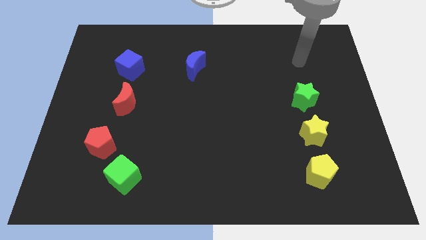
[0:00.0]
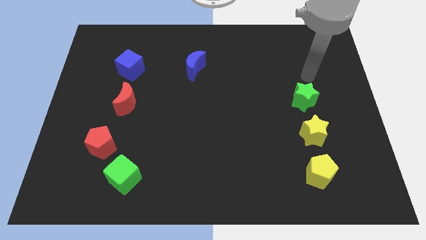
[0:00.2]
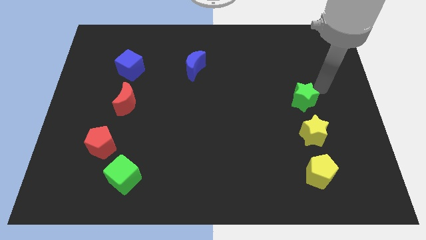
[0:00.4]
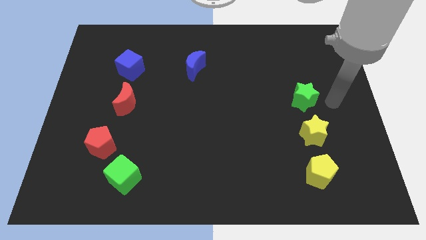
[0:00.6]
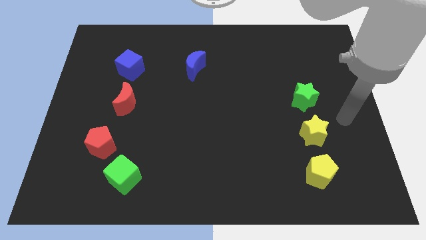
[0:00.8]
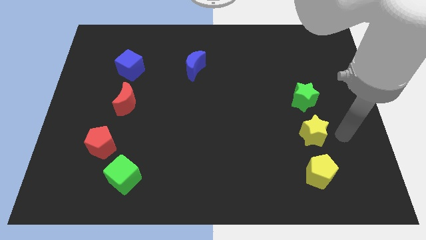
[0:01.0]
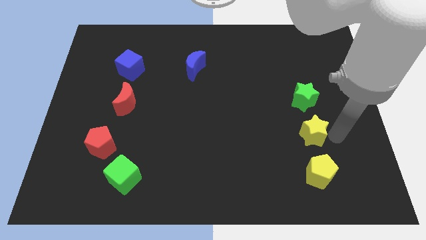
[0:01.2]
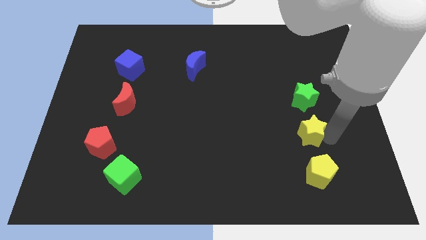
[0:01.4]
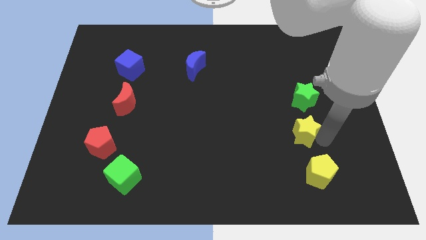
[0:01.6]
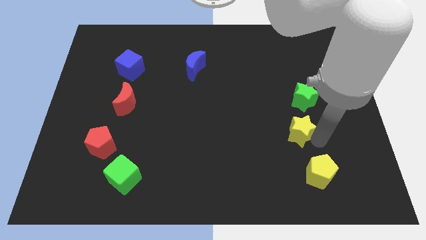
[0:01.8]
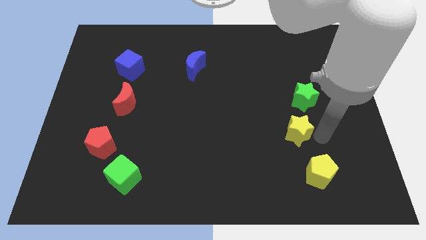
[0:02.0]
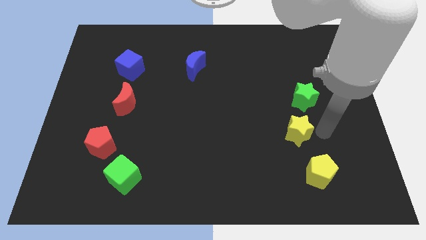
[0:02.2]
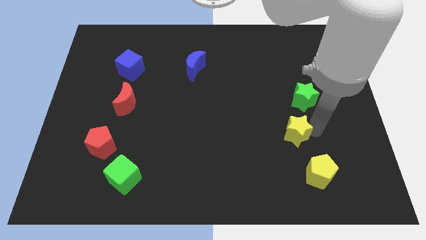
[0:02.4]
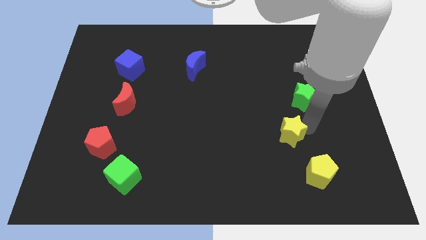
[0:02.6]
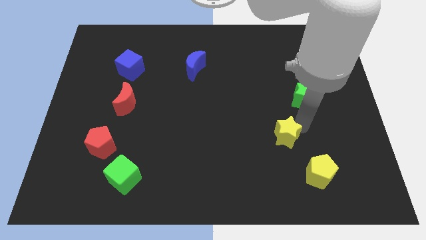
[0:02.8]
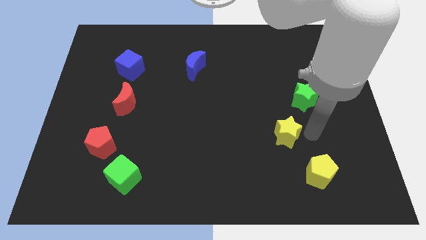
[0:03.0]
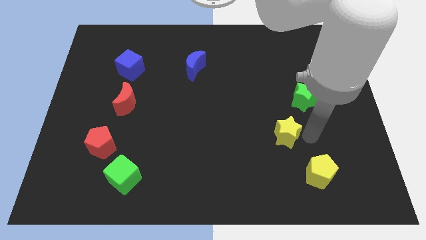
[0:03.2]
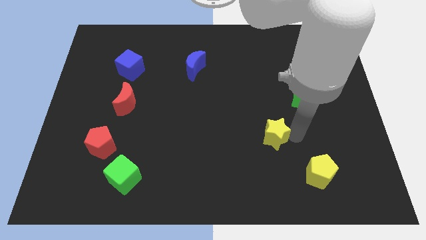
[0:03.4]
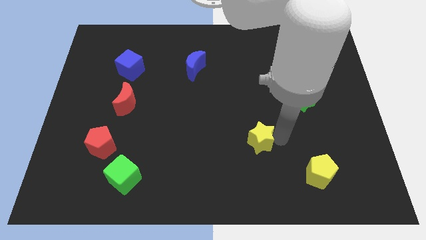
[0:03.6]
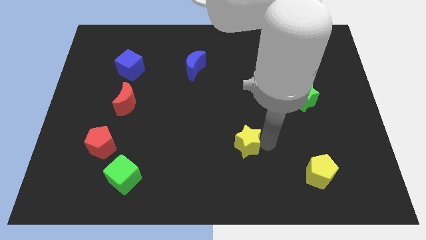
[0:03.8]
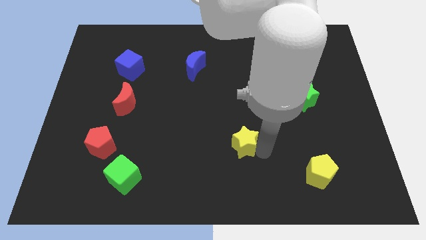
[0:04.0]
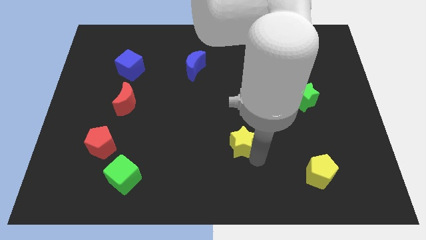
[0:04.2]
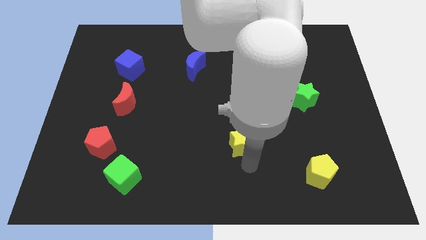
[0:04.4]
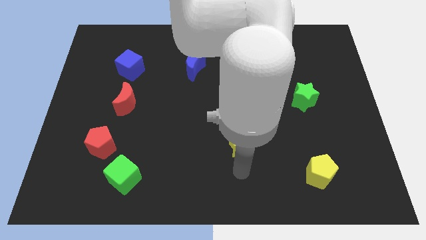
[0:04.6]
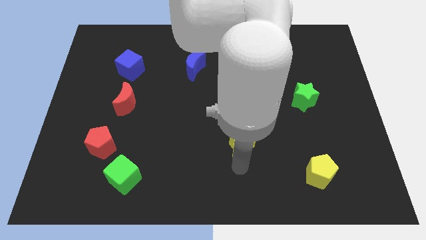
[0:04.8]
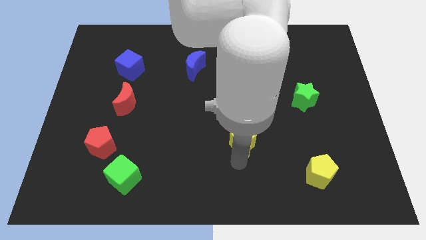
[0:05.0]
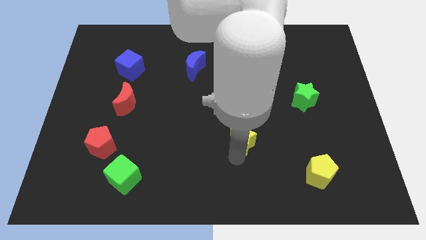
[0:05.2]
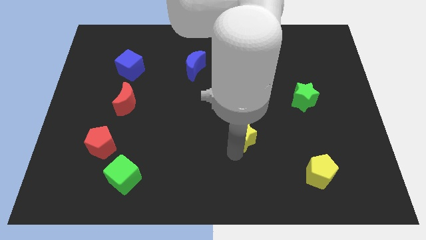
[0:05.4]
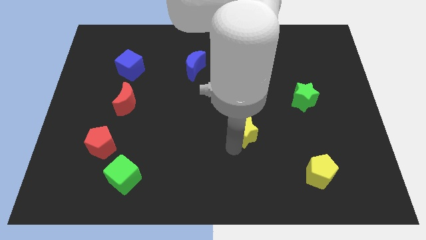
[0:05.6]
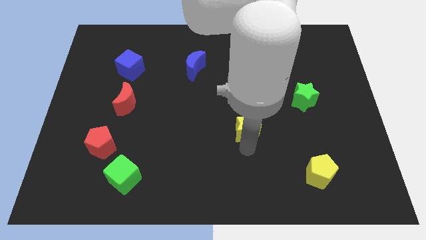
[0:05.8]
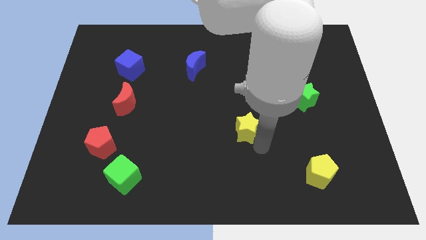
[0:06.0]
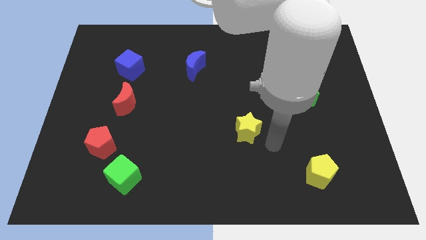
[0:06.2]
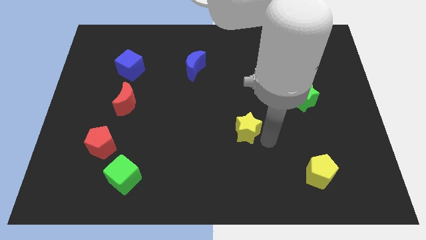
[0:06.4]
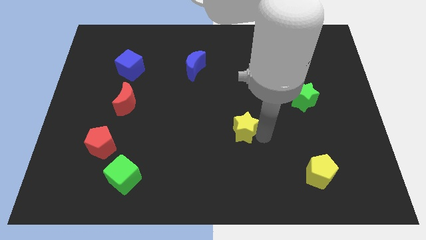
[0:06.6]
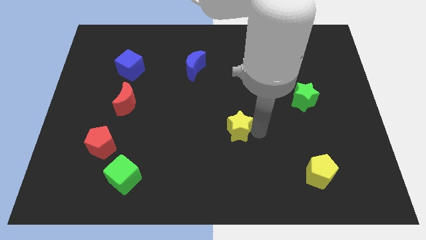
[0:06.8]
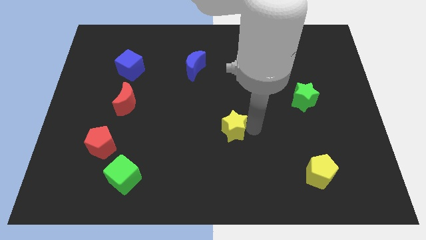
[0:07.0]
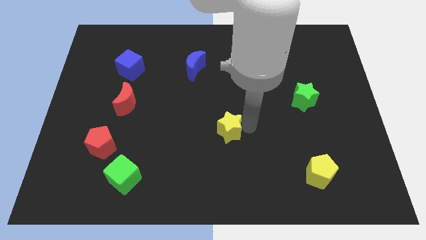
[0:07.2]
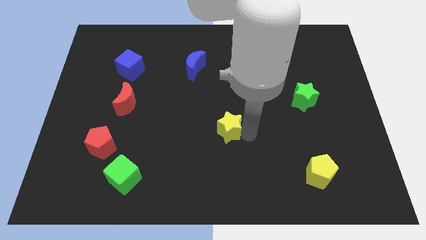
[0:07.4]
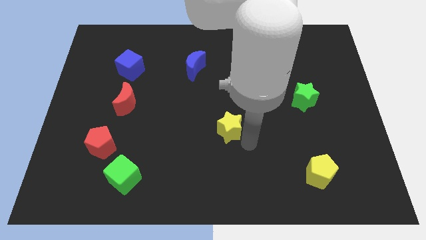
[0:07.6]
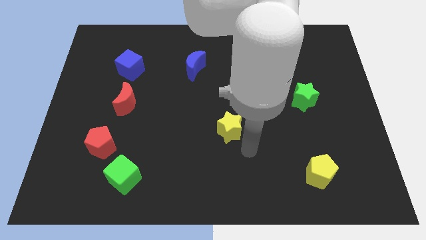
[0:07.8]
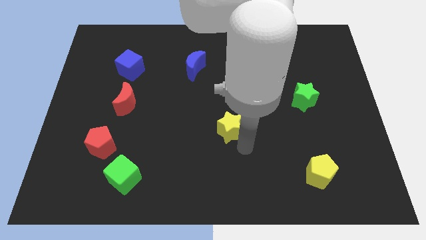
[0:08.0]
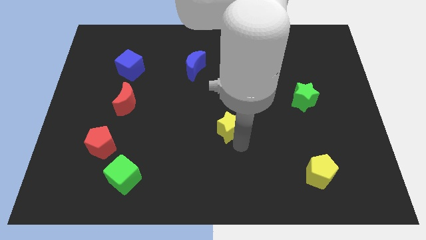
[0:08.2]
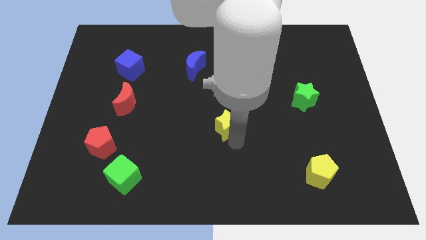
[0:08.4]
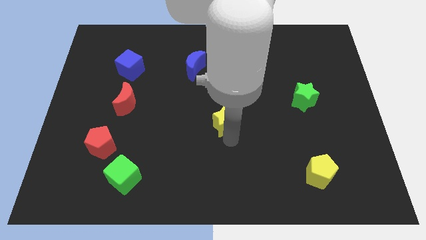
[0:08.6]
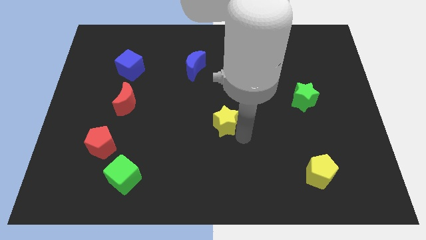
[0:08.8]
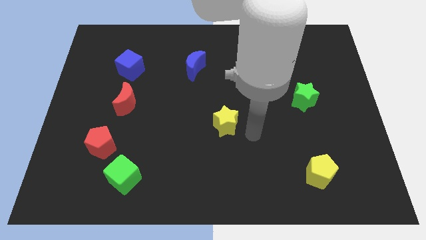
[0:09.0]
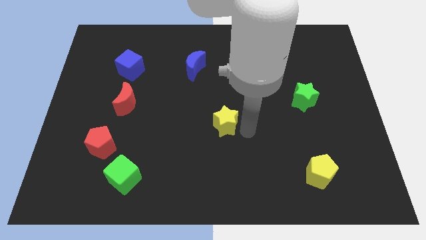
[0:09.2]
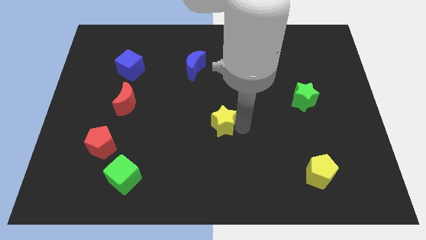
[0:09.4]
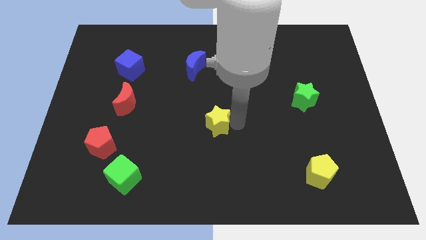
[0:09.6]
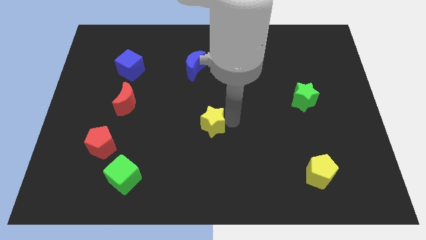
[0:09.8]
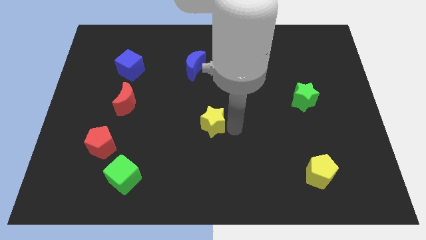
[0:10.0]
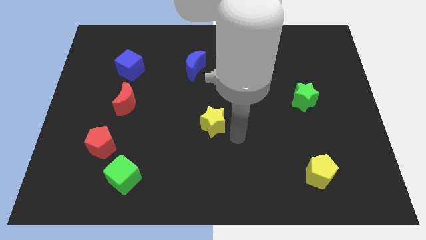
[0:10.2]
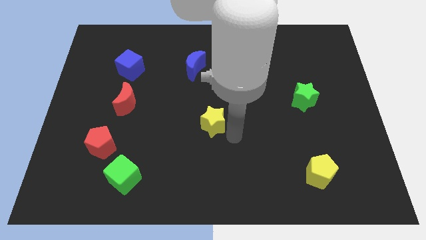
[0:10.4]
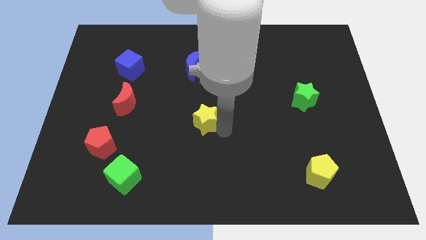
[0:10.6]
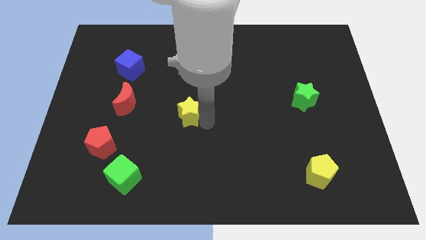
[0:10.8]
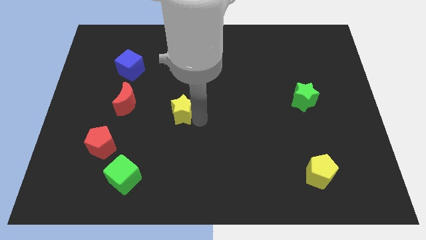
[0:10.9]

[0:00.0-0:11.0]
move the yellow star to the right of the red moon

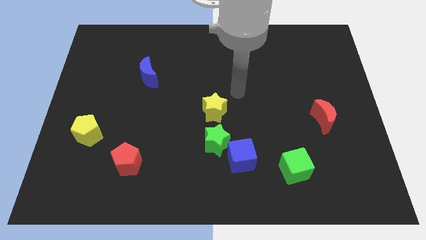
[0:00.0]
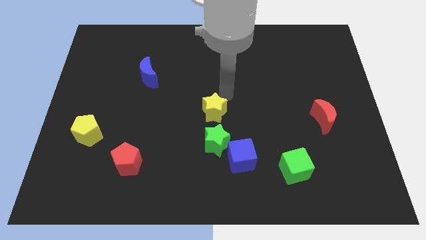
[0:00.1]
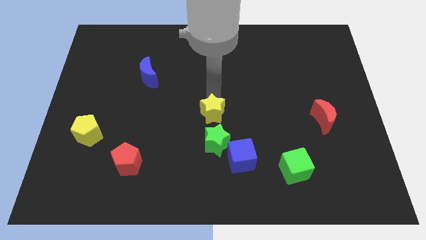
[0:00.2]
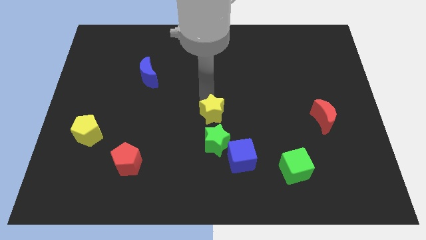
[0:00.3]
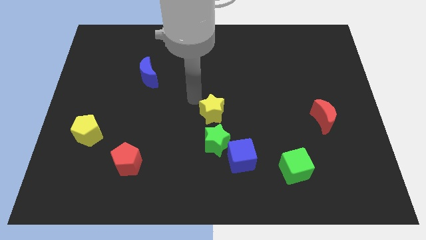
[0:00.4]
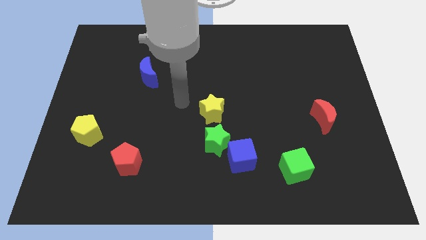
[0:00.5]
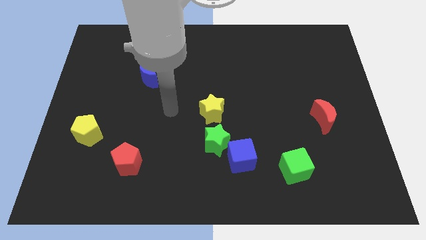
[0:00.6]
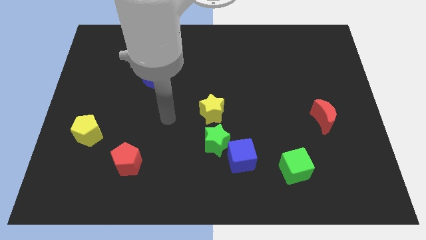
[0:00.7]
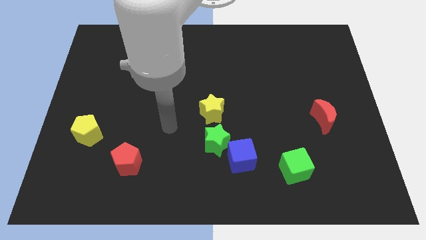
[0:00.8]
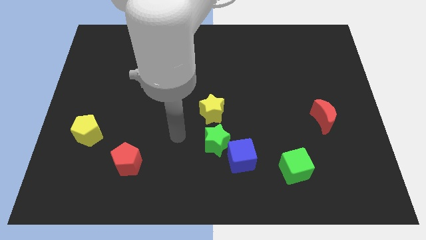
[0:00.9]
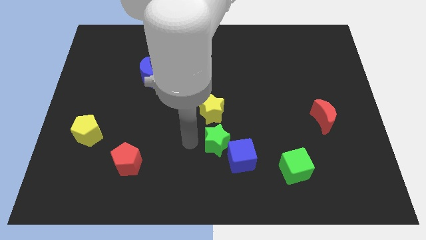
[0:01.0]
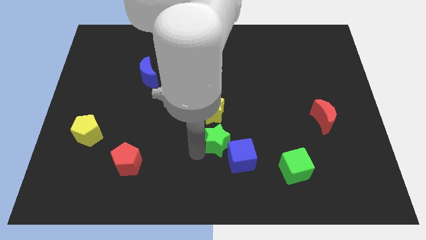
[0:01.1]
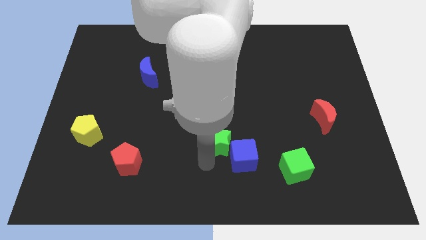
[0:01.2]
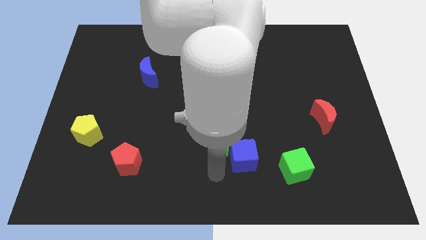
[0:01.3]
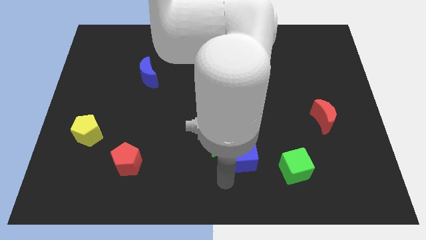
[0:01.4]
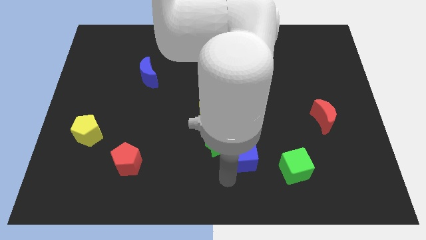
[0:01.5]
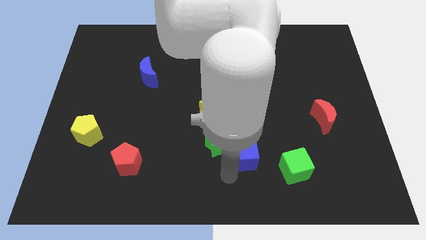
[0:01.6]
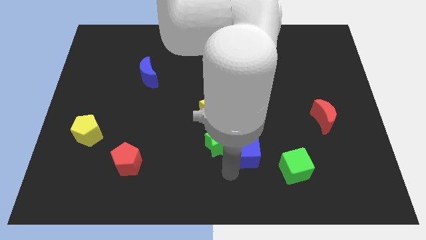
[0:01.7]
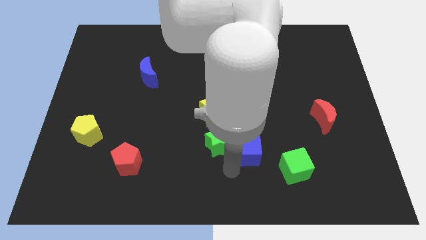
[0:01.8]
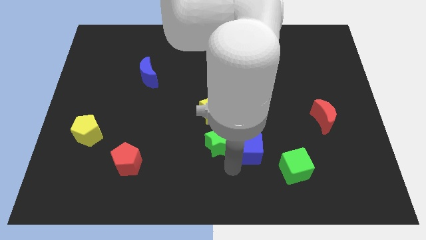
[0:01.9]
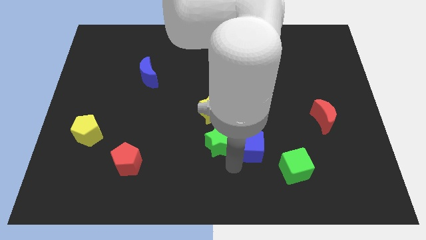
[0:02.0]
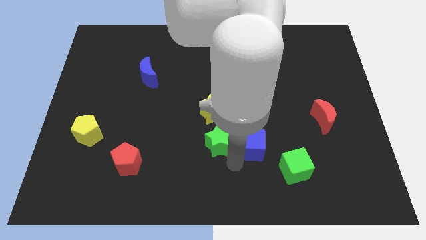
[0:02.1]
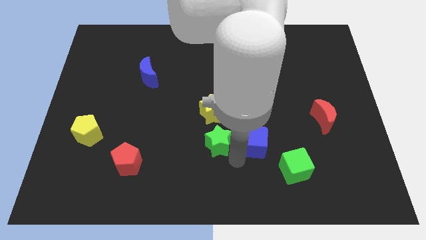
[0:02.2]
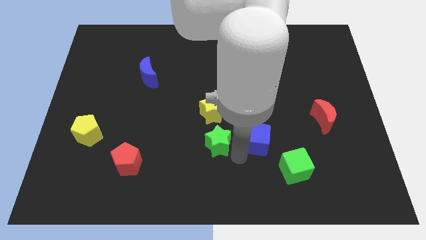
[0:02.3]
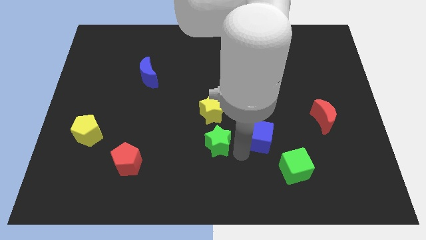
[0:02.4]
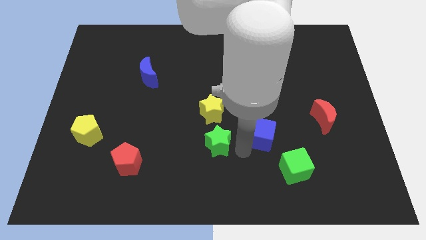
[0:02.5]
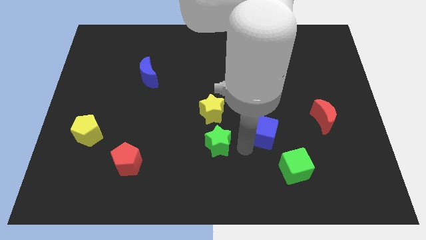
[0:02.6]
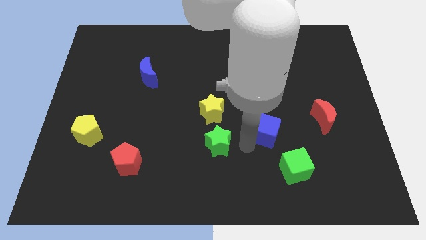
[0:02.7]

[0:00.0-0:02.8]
push the blue cube left of the red moon
